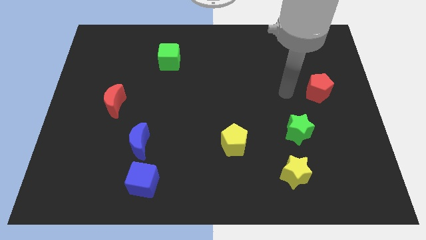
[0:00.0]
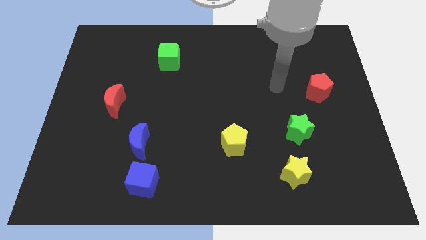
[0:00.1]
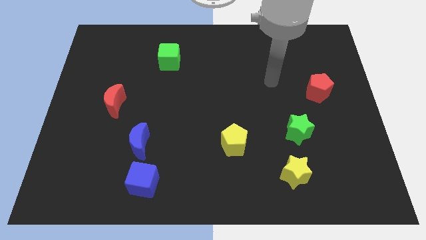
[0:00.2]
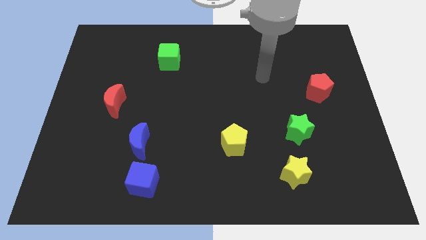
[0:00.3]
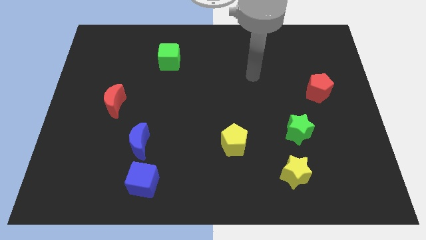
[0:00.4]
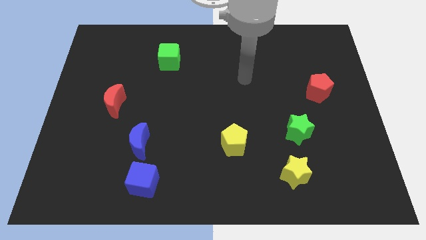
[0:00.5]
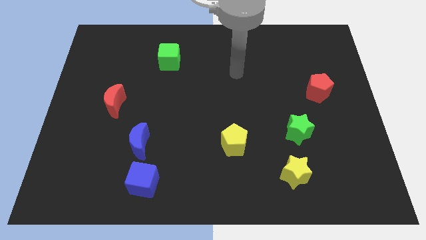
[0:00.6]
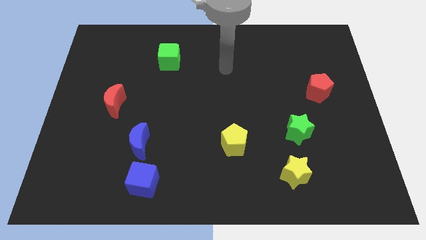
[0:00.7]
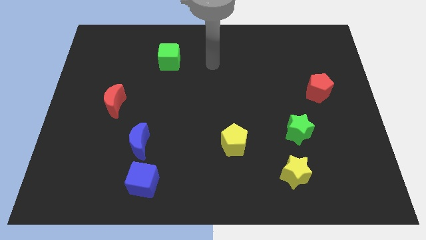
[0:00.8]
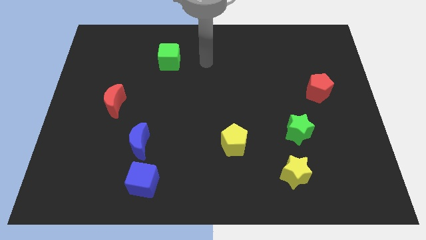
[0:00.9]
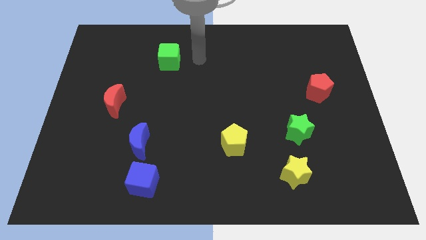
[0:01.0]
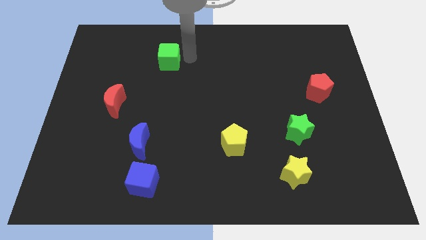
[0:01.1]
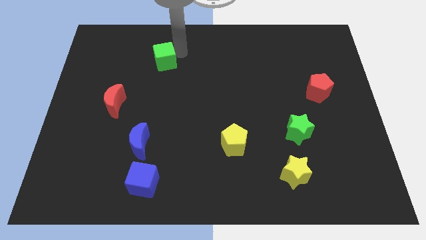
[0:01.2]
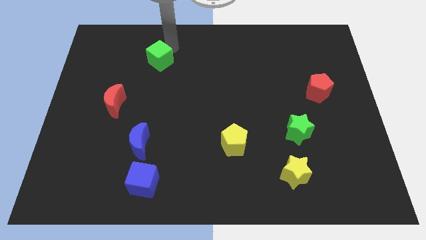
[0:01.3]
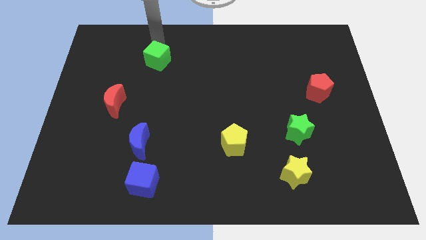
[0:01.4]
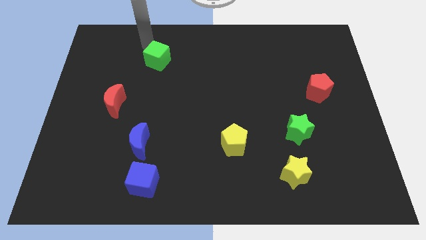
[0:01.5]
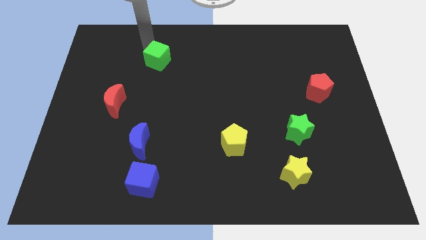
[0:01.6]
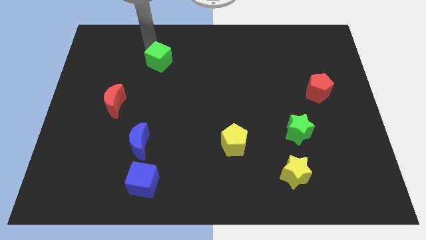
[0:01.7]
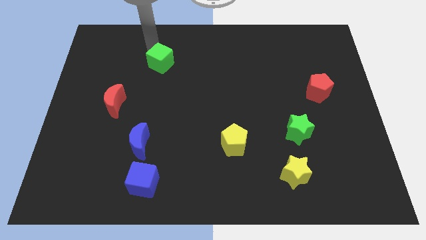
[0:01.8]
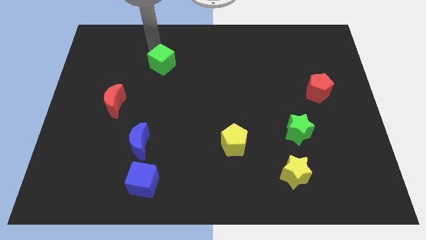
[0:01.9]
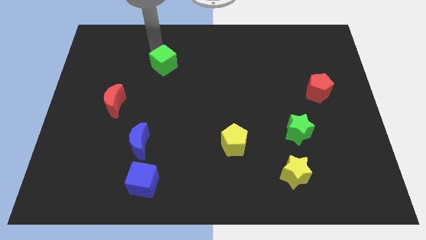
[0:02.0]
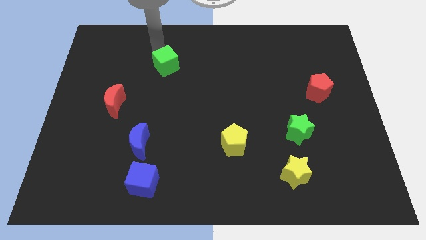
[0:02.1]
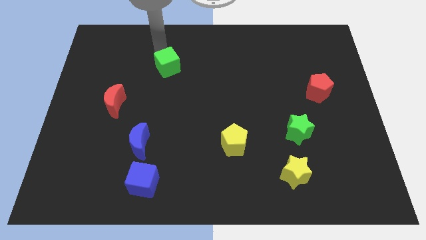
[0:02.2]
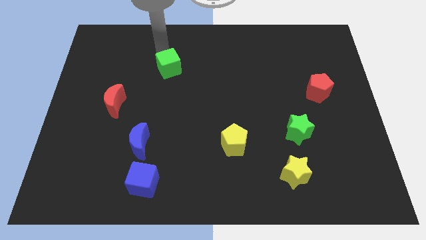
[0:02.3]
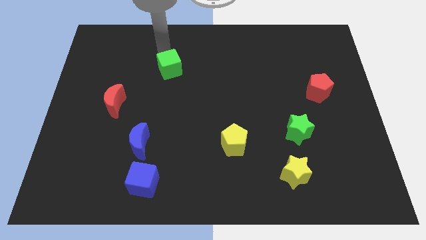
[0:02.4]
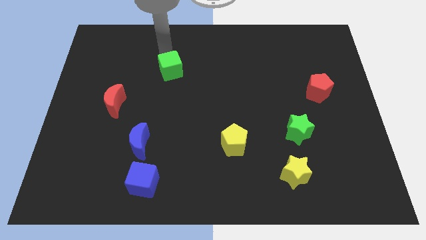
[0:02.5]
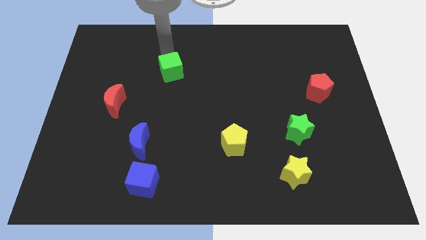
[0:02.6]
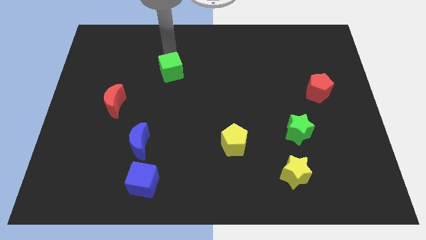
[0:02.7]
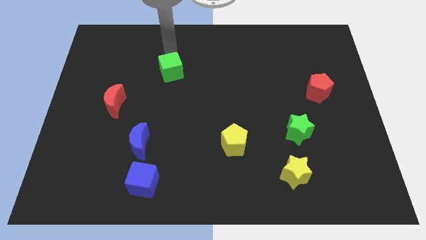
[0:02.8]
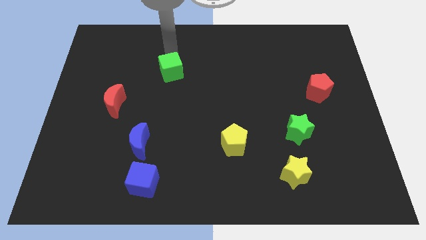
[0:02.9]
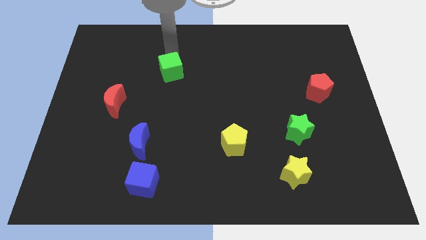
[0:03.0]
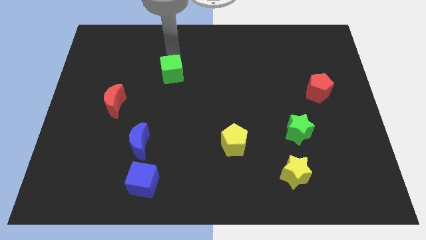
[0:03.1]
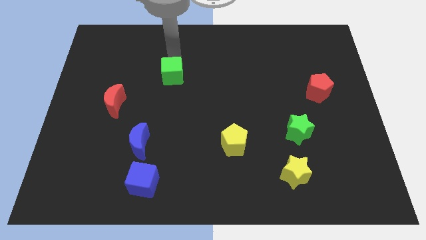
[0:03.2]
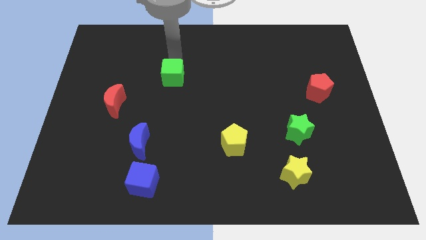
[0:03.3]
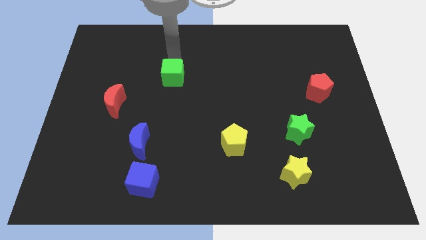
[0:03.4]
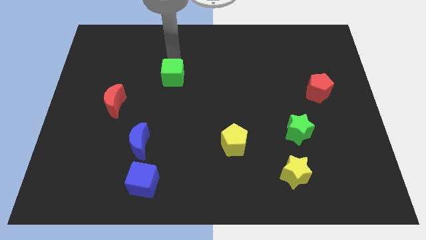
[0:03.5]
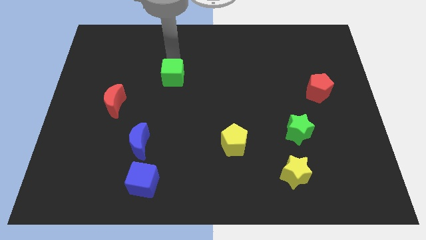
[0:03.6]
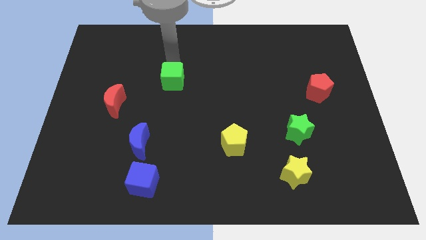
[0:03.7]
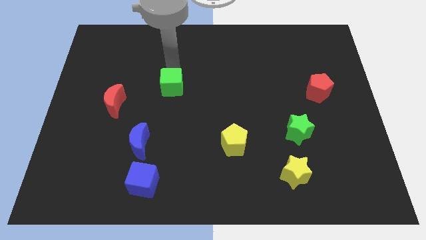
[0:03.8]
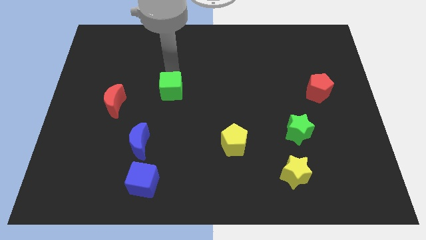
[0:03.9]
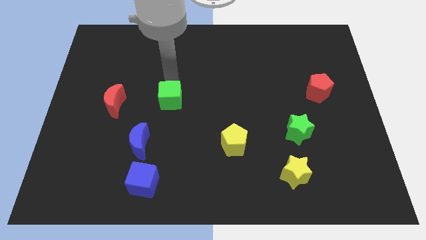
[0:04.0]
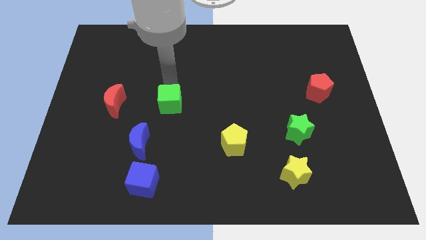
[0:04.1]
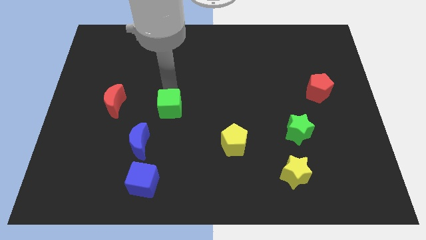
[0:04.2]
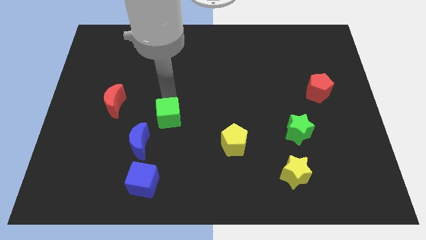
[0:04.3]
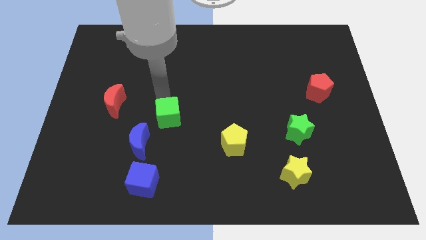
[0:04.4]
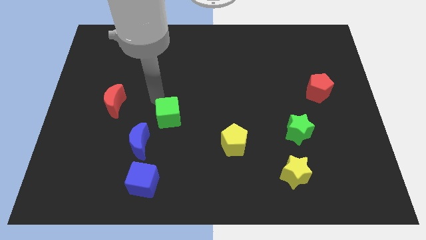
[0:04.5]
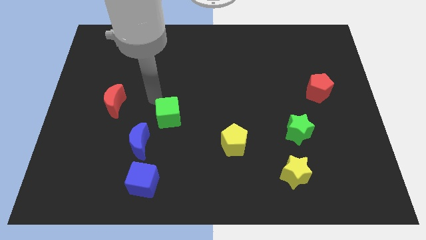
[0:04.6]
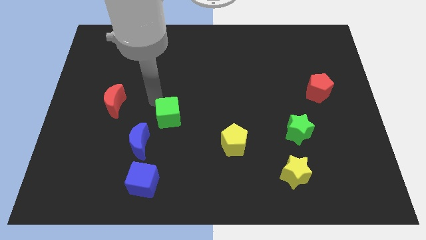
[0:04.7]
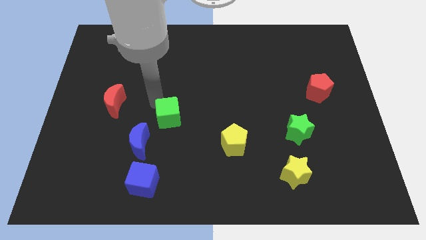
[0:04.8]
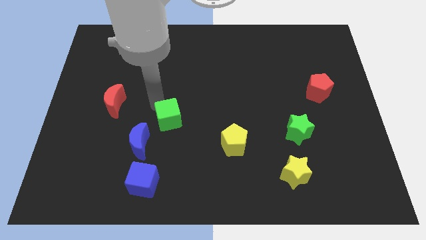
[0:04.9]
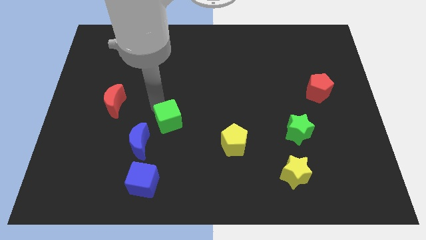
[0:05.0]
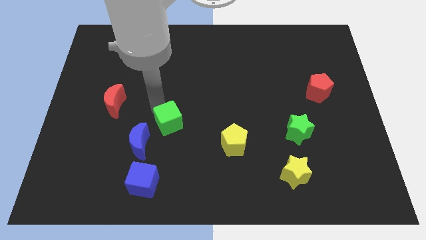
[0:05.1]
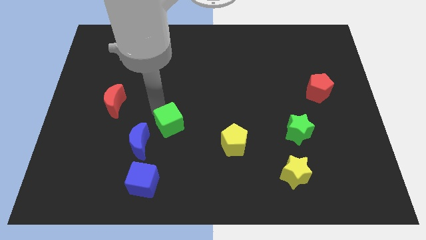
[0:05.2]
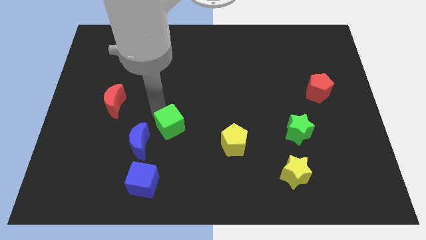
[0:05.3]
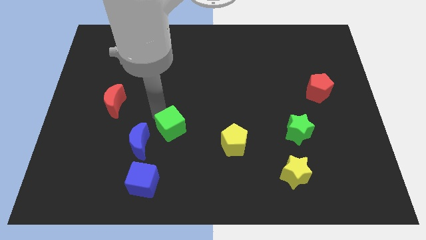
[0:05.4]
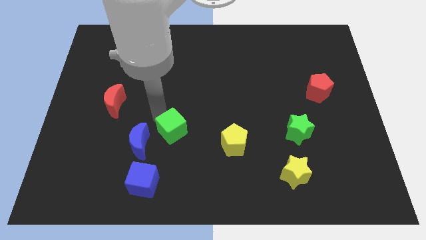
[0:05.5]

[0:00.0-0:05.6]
move the green cube to the left of the yellow pentagon

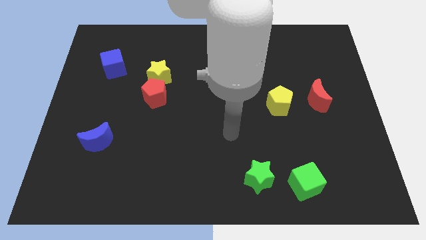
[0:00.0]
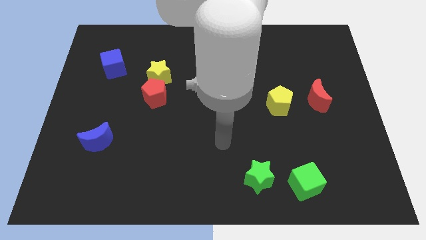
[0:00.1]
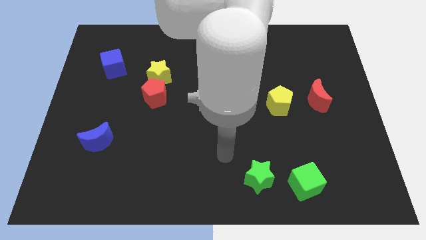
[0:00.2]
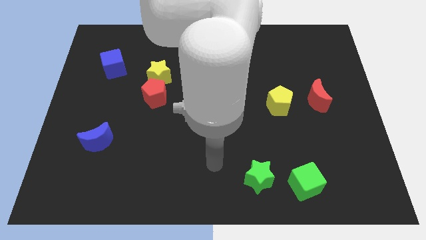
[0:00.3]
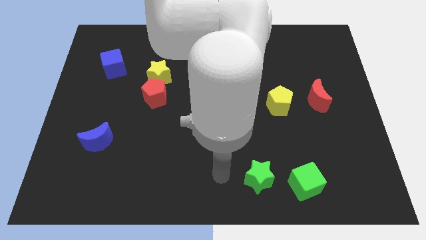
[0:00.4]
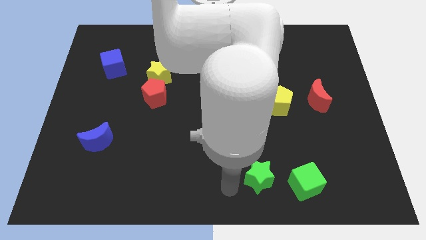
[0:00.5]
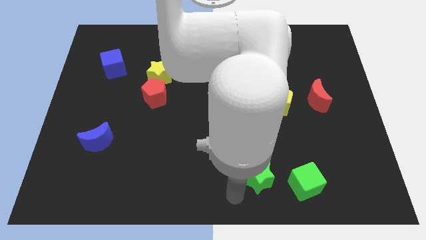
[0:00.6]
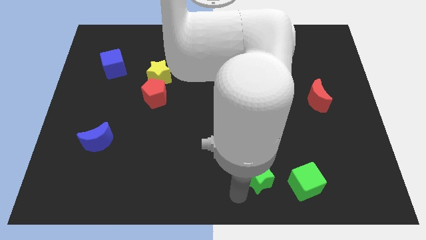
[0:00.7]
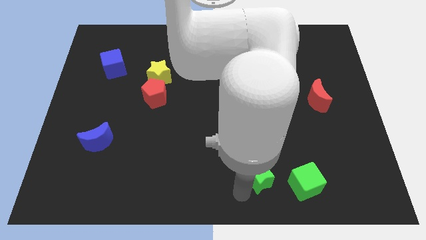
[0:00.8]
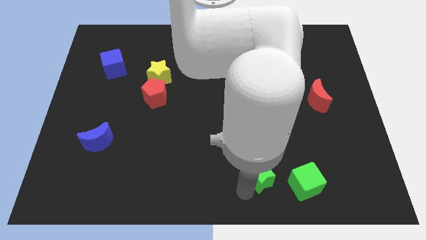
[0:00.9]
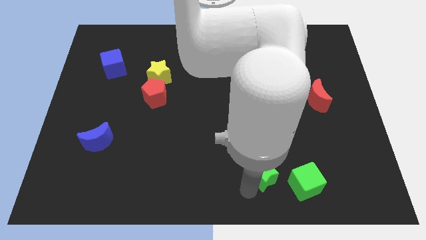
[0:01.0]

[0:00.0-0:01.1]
move the green star to the top left side of the green cube

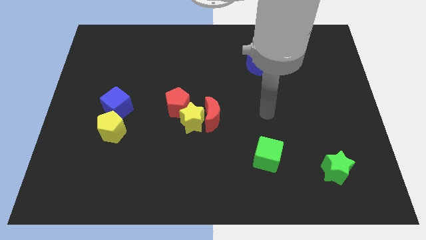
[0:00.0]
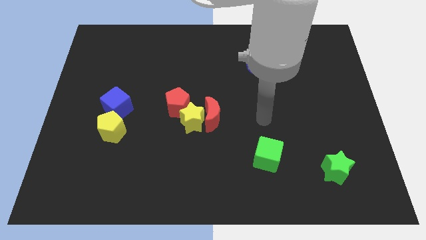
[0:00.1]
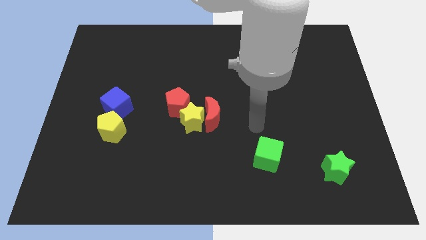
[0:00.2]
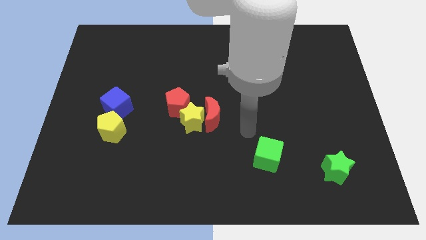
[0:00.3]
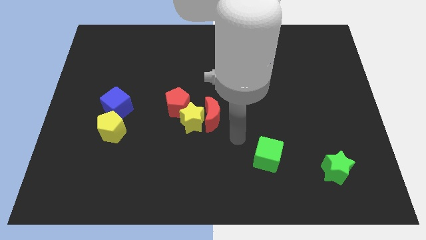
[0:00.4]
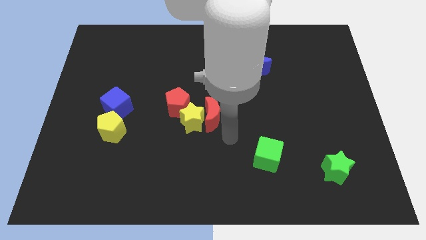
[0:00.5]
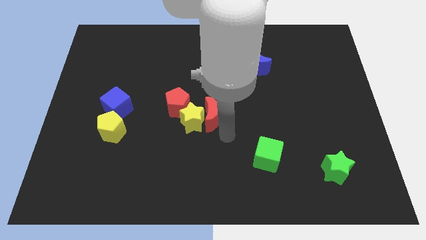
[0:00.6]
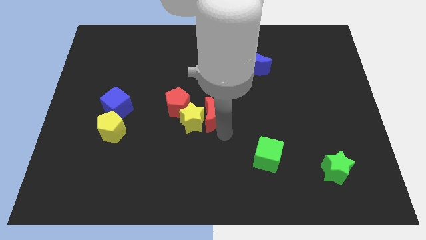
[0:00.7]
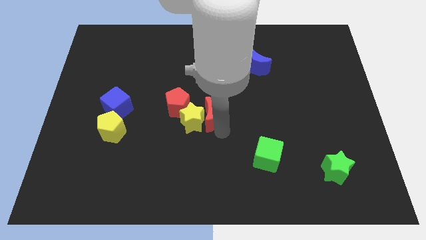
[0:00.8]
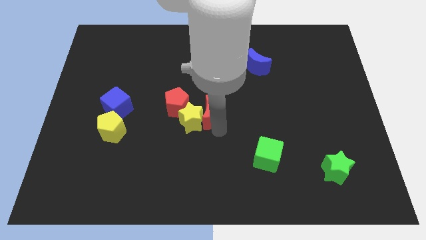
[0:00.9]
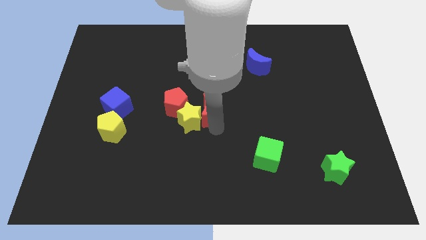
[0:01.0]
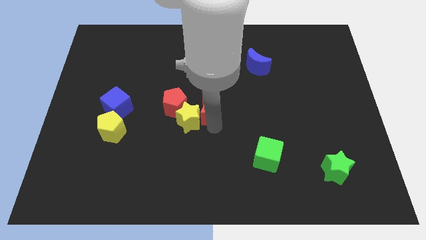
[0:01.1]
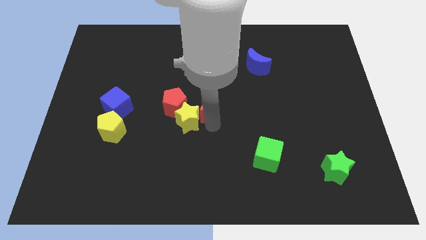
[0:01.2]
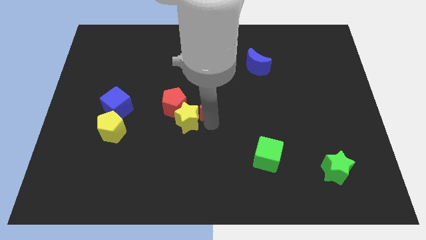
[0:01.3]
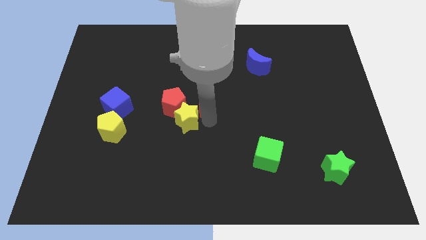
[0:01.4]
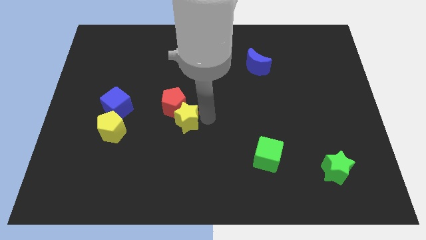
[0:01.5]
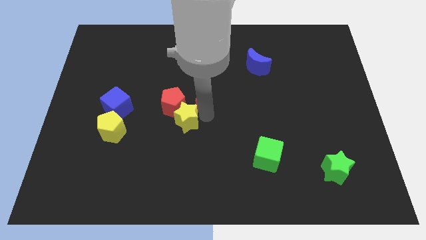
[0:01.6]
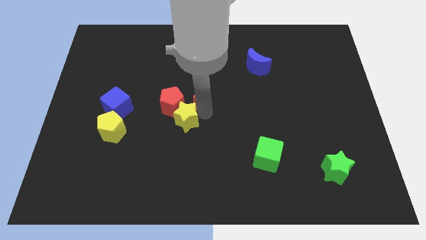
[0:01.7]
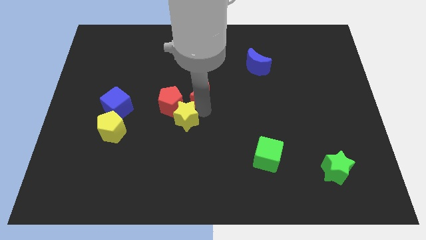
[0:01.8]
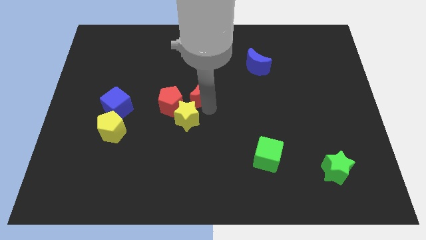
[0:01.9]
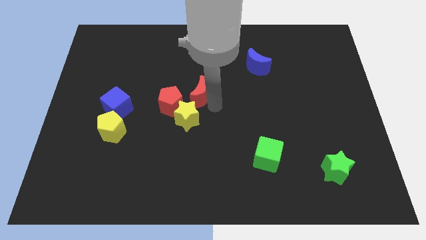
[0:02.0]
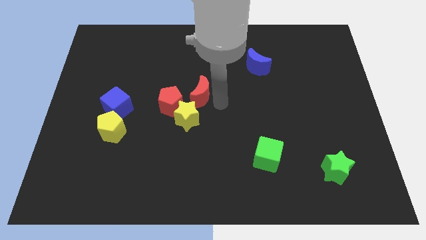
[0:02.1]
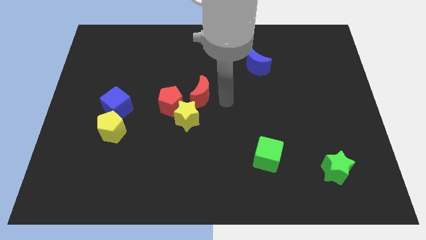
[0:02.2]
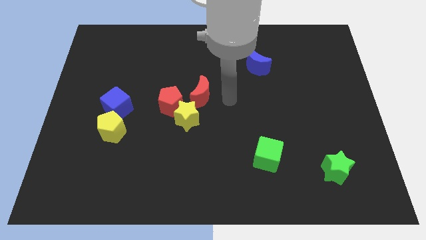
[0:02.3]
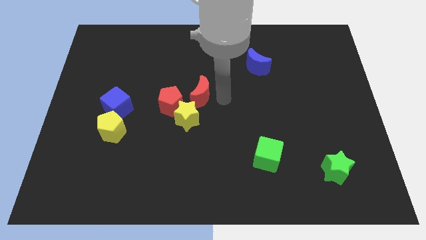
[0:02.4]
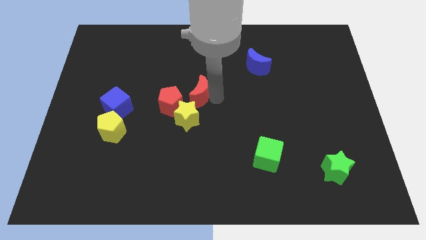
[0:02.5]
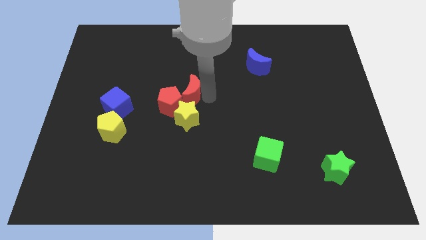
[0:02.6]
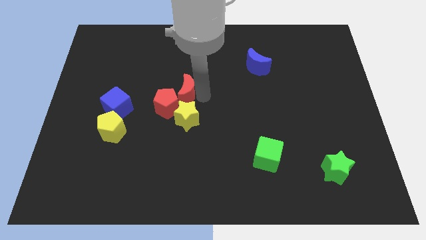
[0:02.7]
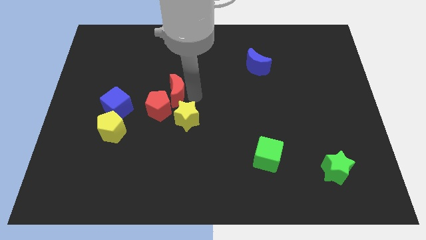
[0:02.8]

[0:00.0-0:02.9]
move the red moon to the top left side of the yellow star
